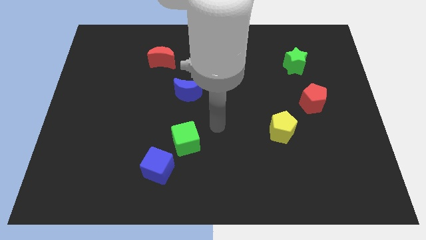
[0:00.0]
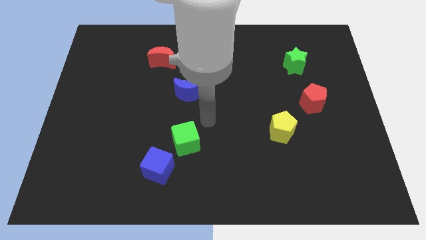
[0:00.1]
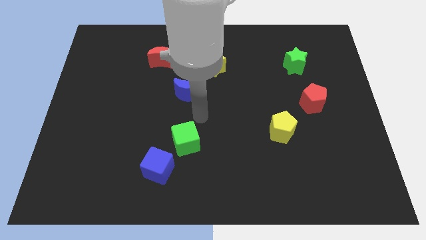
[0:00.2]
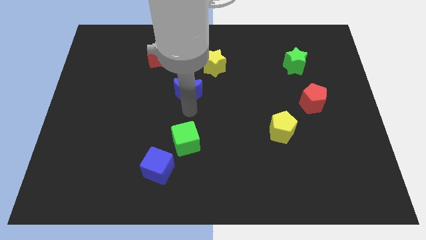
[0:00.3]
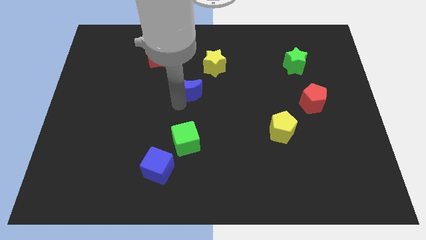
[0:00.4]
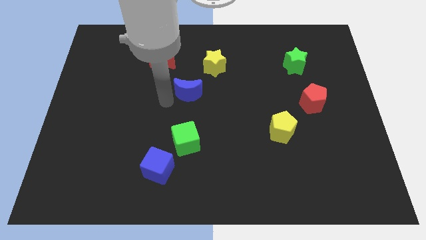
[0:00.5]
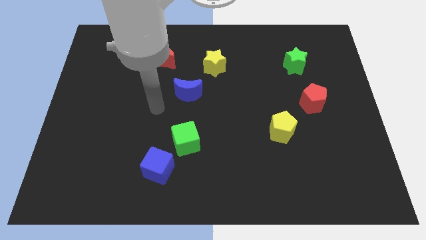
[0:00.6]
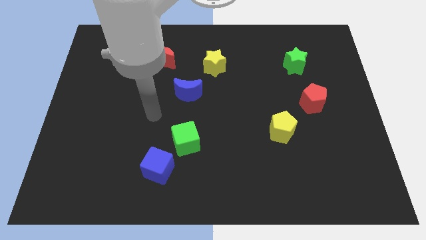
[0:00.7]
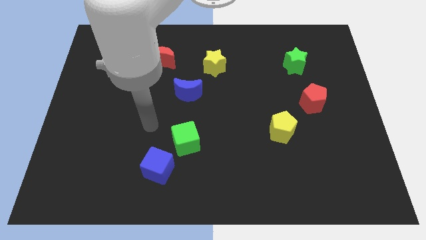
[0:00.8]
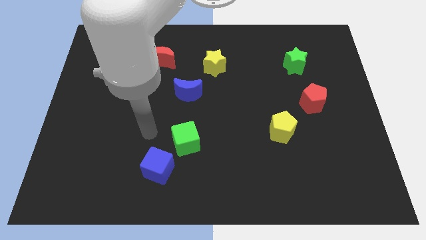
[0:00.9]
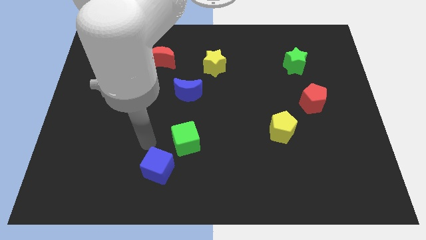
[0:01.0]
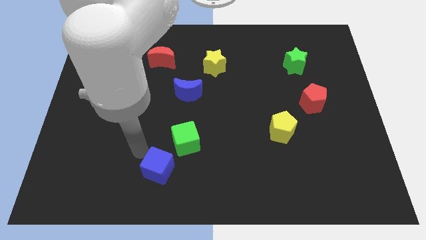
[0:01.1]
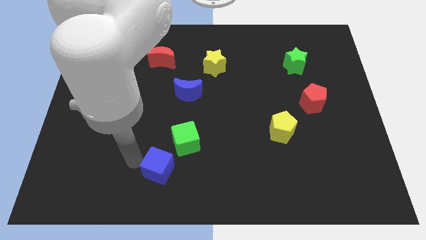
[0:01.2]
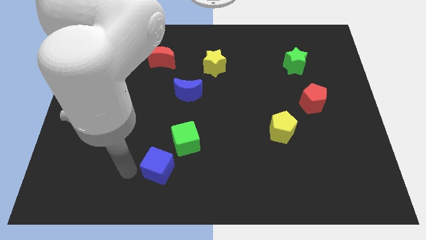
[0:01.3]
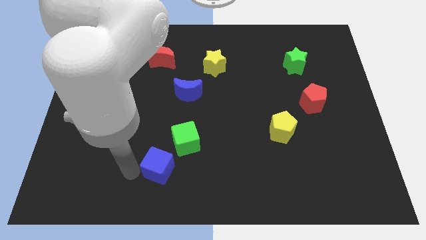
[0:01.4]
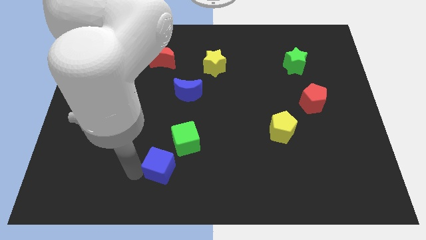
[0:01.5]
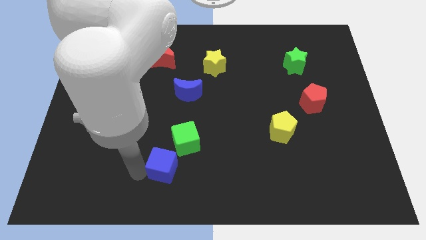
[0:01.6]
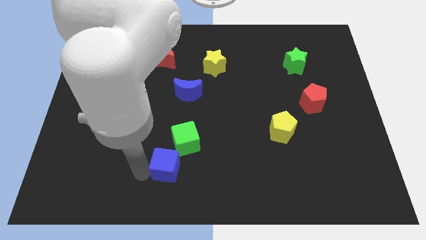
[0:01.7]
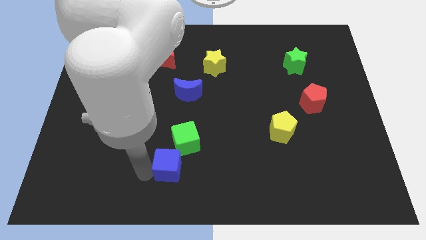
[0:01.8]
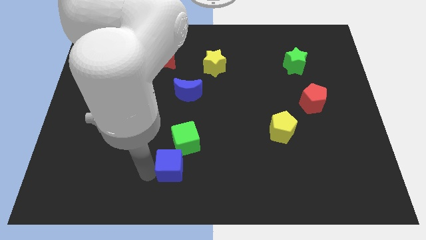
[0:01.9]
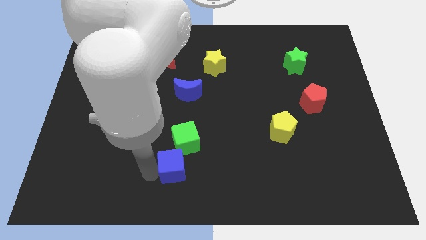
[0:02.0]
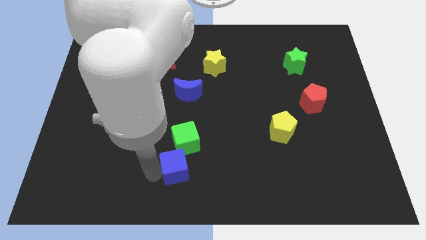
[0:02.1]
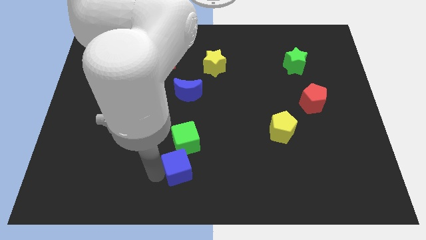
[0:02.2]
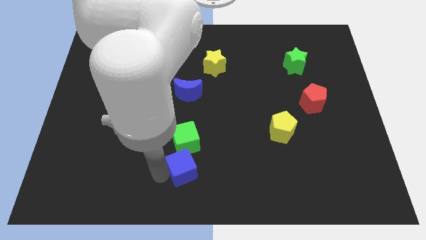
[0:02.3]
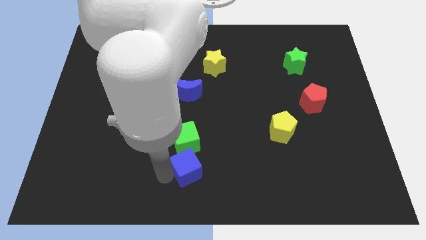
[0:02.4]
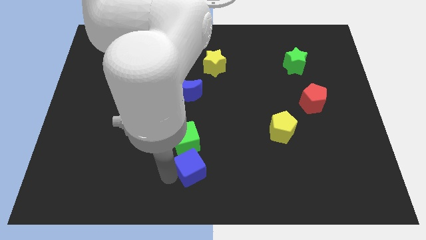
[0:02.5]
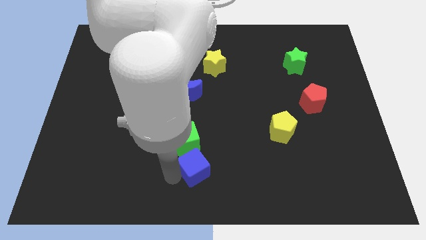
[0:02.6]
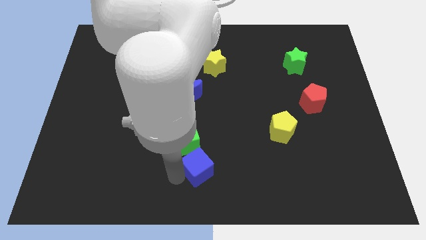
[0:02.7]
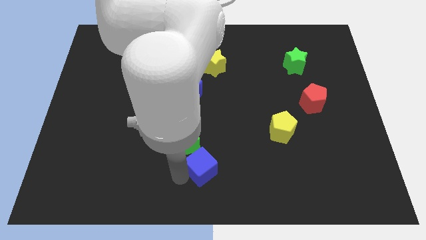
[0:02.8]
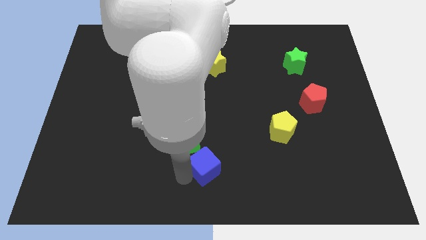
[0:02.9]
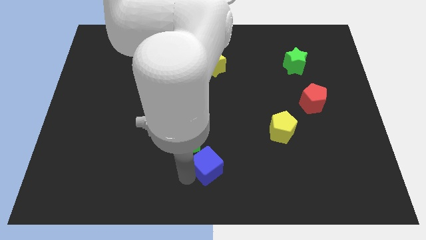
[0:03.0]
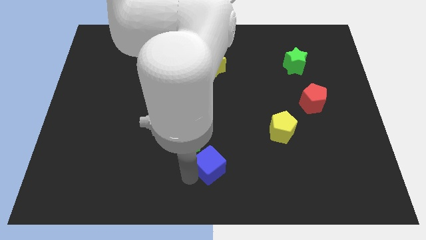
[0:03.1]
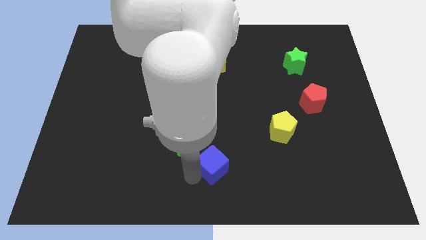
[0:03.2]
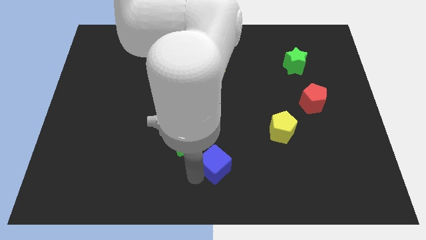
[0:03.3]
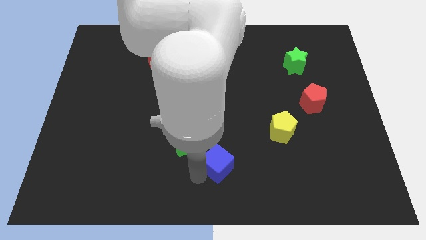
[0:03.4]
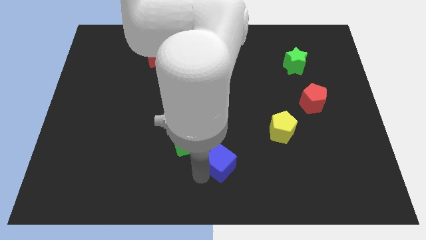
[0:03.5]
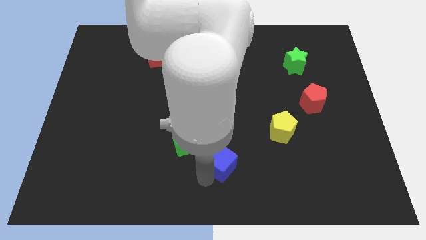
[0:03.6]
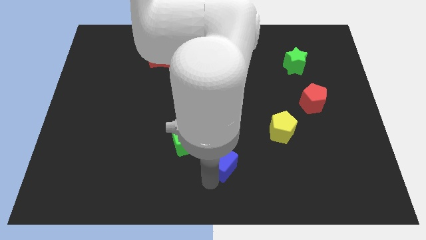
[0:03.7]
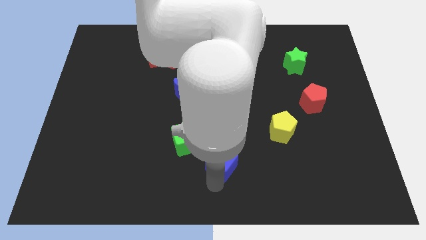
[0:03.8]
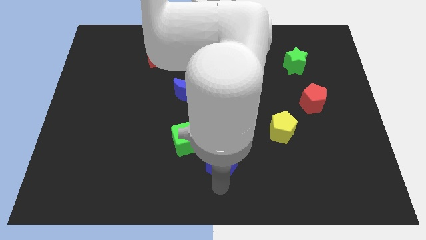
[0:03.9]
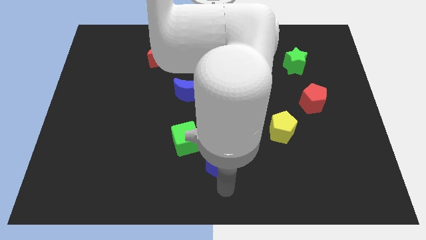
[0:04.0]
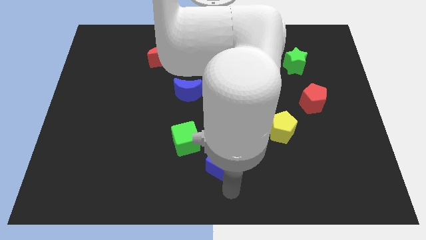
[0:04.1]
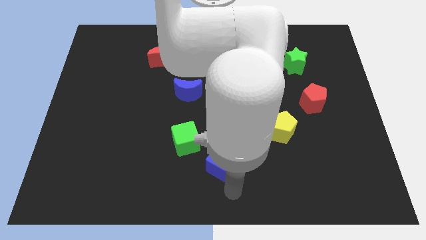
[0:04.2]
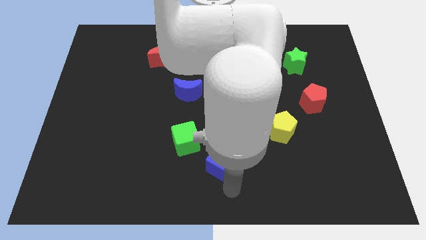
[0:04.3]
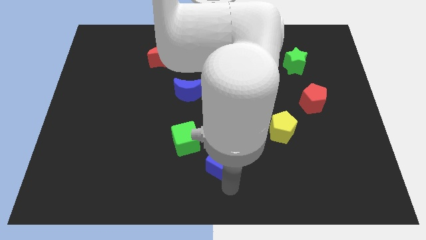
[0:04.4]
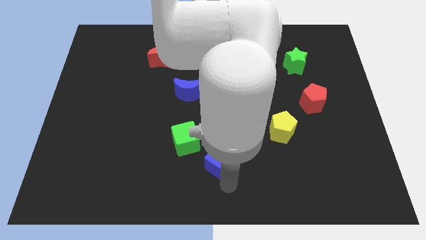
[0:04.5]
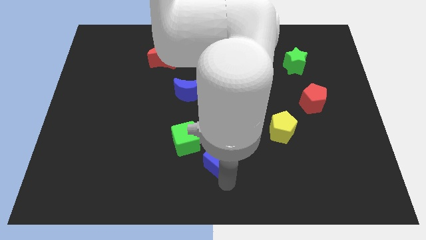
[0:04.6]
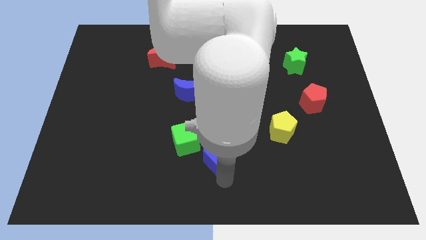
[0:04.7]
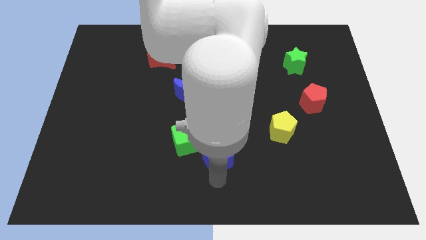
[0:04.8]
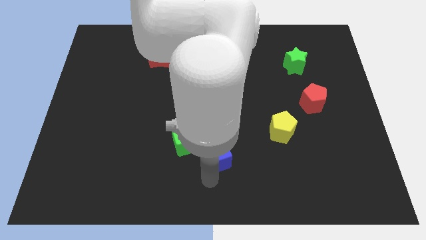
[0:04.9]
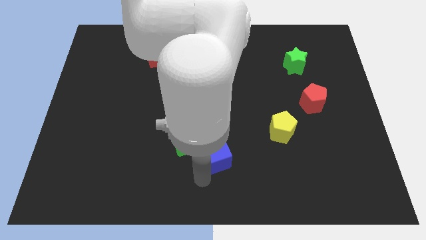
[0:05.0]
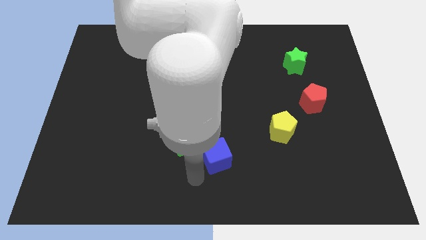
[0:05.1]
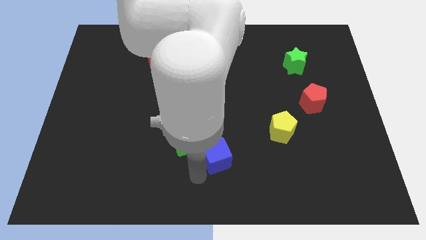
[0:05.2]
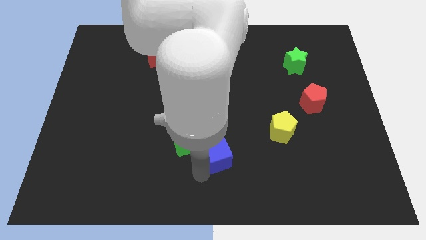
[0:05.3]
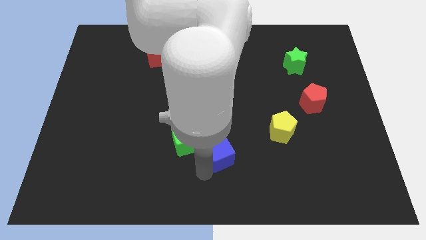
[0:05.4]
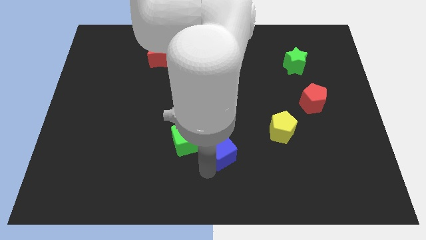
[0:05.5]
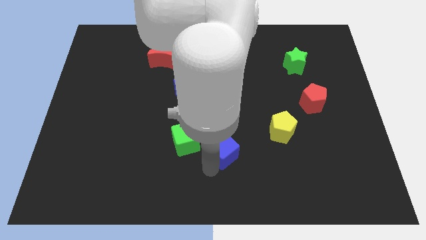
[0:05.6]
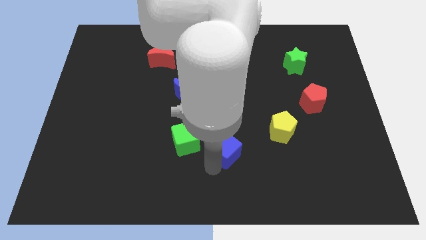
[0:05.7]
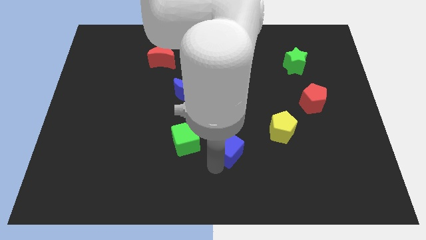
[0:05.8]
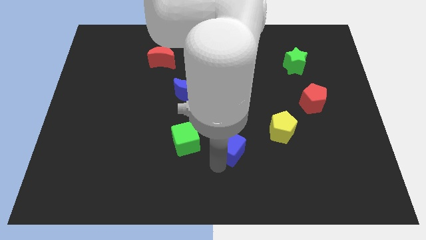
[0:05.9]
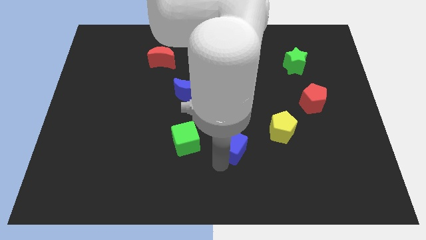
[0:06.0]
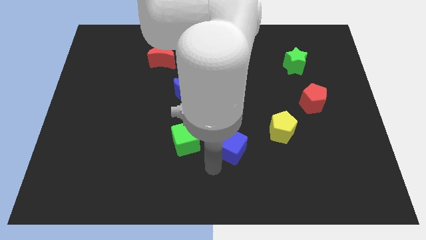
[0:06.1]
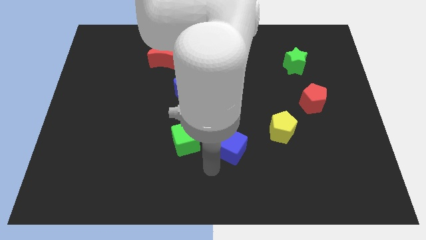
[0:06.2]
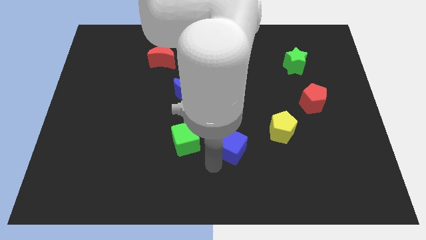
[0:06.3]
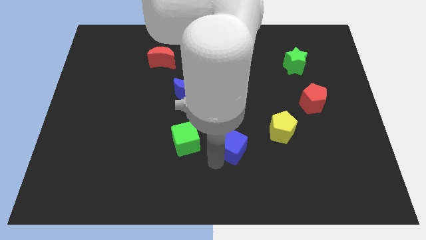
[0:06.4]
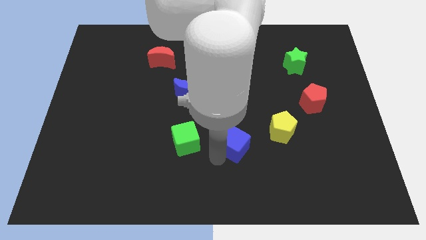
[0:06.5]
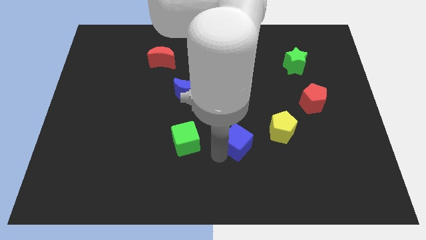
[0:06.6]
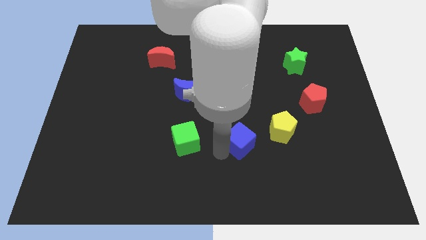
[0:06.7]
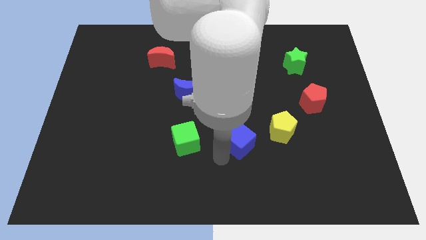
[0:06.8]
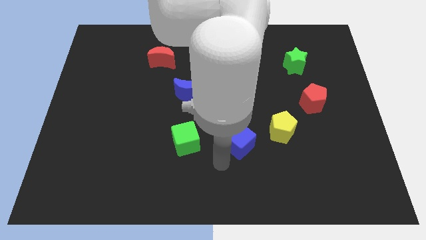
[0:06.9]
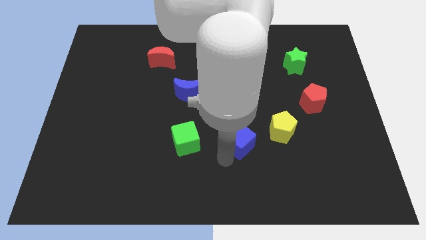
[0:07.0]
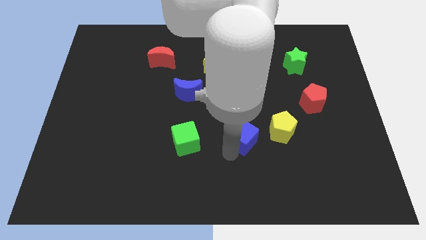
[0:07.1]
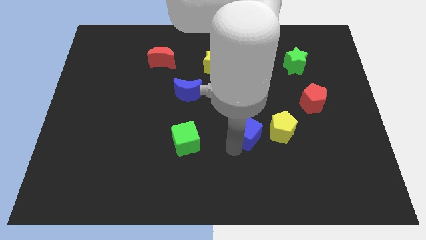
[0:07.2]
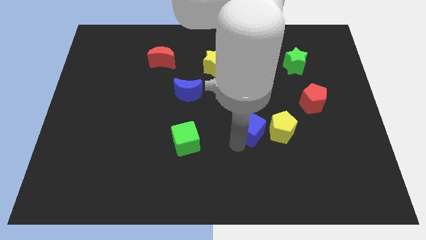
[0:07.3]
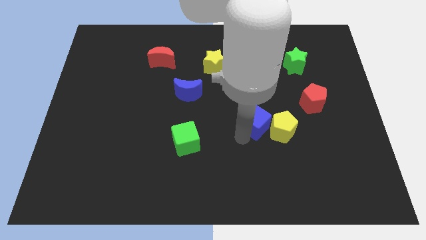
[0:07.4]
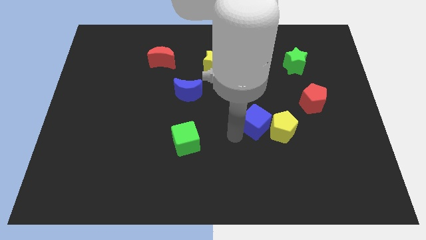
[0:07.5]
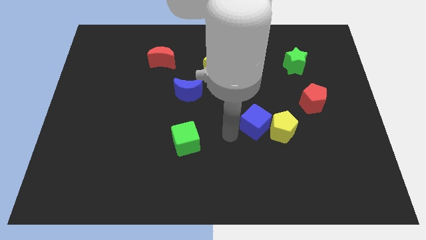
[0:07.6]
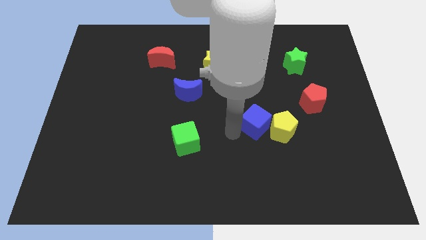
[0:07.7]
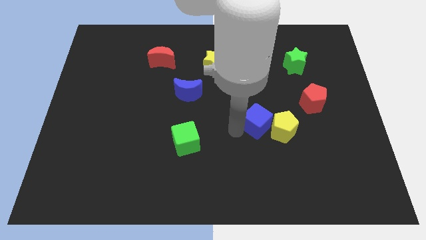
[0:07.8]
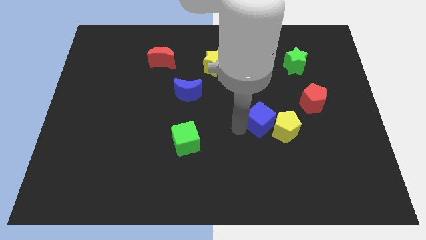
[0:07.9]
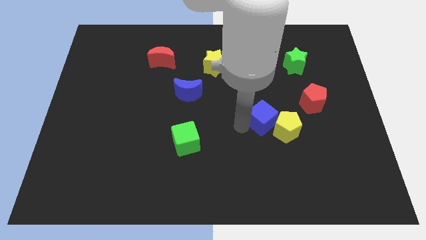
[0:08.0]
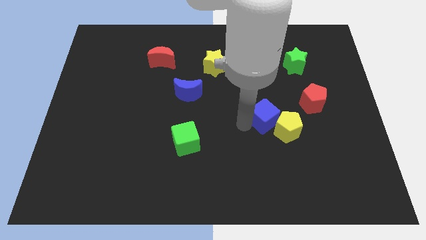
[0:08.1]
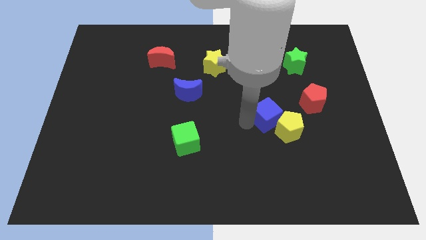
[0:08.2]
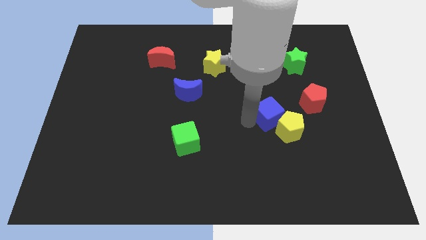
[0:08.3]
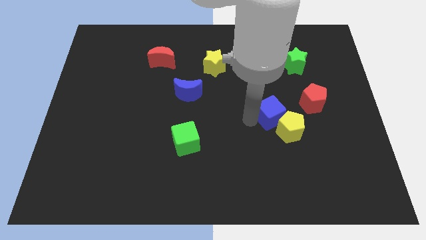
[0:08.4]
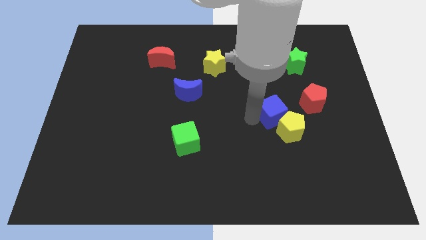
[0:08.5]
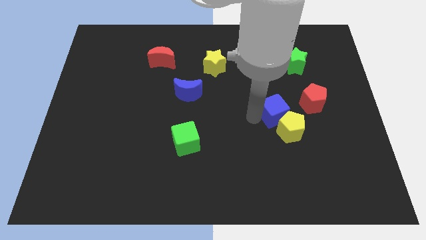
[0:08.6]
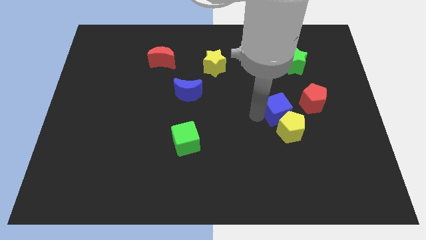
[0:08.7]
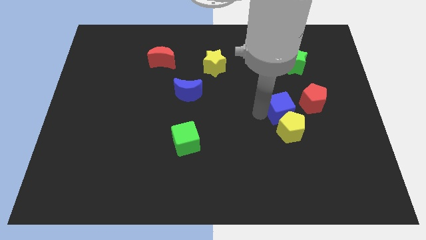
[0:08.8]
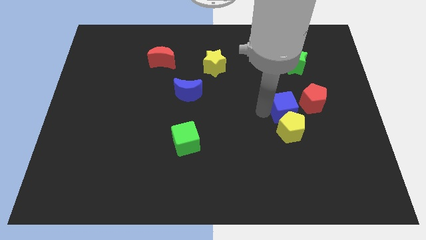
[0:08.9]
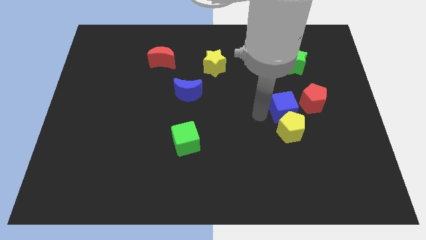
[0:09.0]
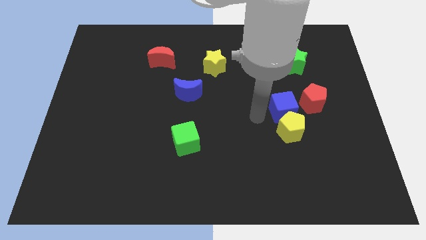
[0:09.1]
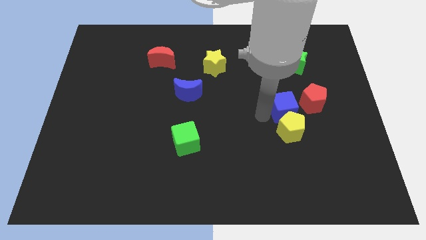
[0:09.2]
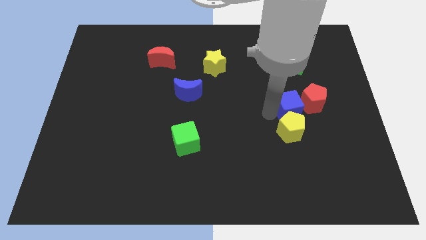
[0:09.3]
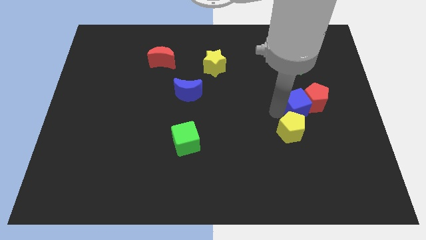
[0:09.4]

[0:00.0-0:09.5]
push the blue cube towards the red pentagon
